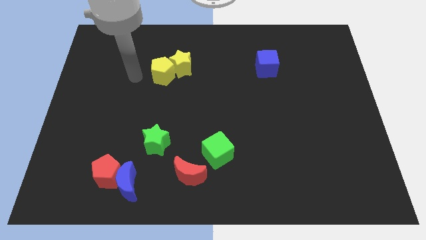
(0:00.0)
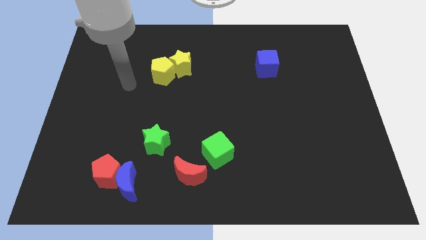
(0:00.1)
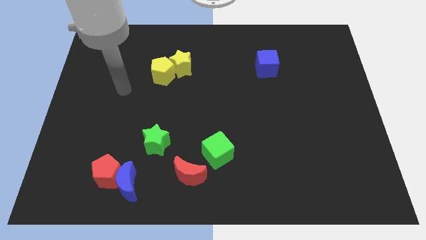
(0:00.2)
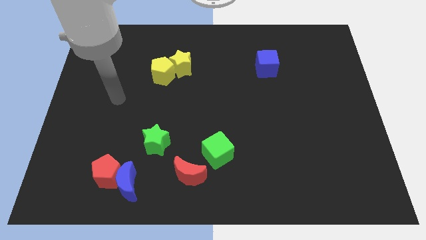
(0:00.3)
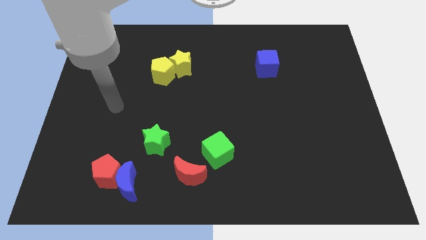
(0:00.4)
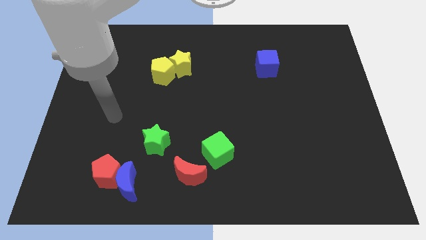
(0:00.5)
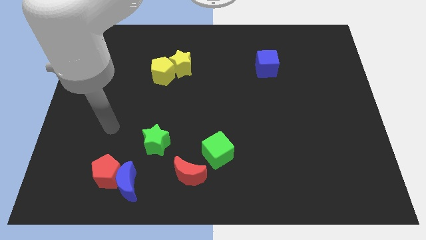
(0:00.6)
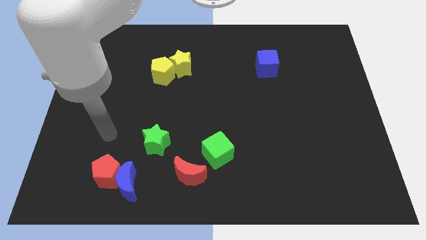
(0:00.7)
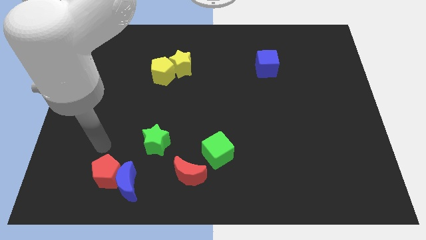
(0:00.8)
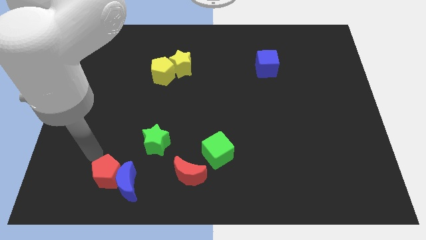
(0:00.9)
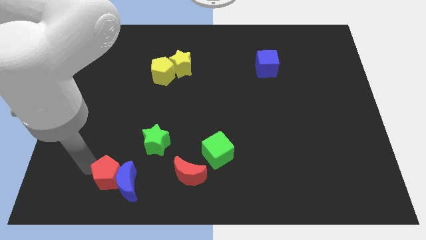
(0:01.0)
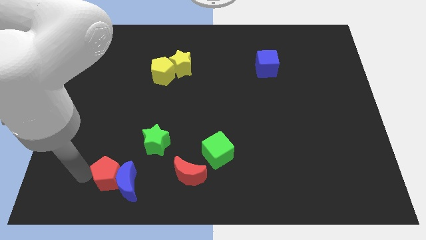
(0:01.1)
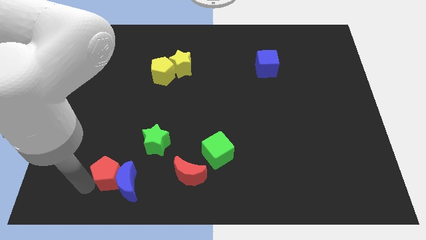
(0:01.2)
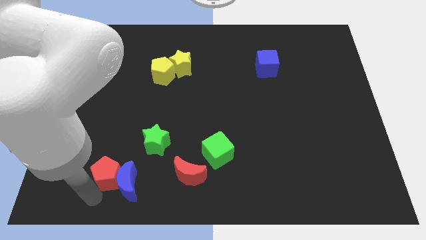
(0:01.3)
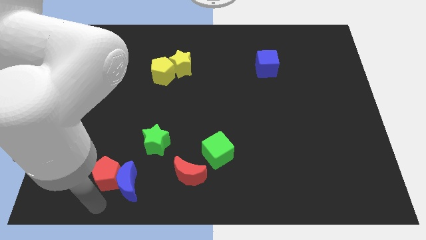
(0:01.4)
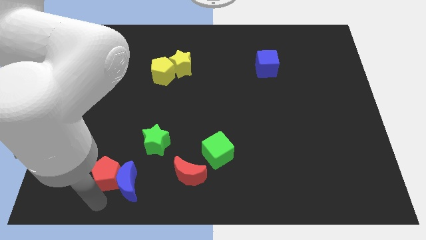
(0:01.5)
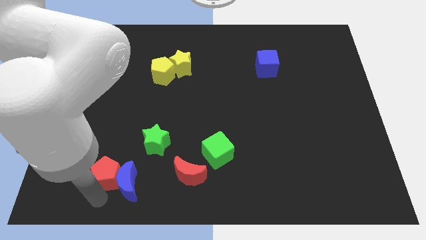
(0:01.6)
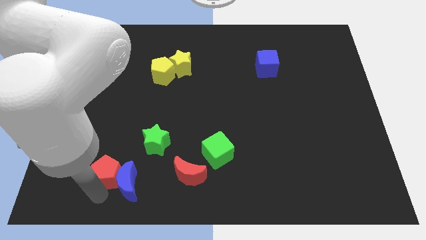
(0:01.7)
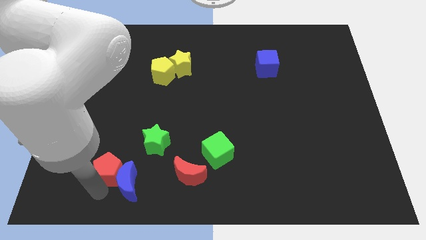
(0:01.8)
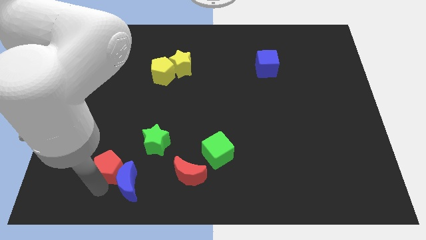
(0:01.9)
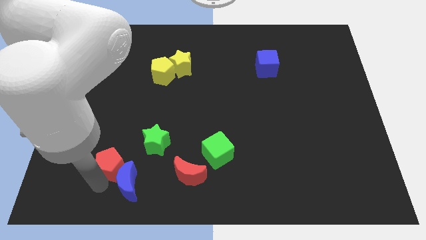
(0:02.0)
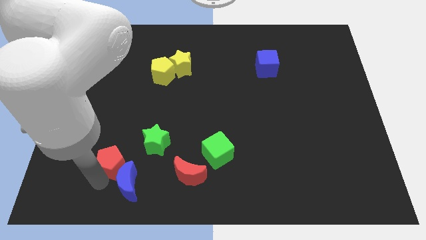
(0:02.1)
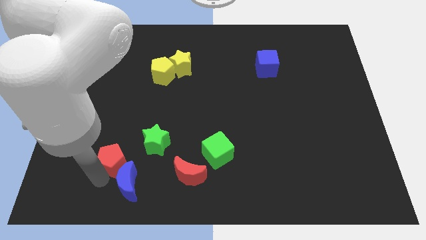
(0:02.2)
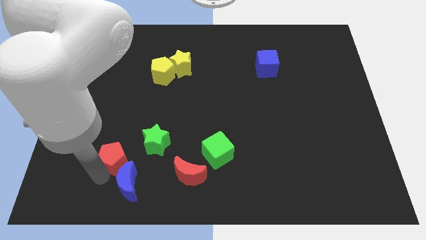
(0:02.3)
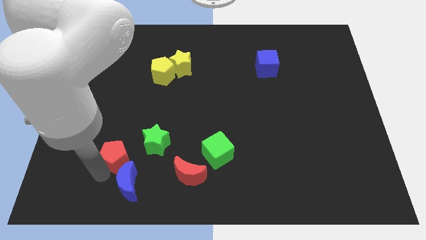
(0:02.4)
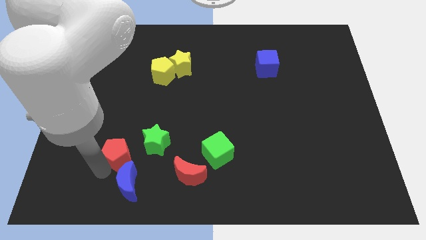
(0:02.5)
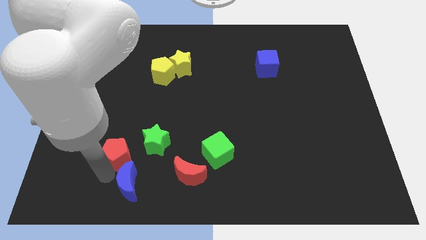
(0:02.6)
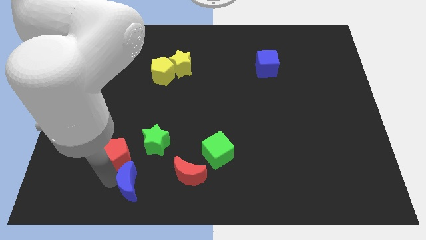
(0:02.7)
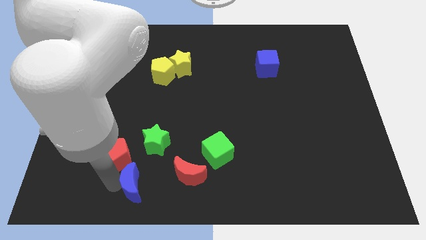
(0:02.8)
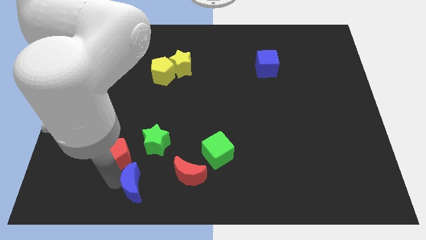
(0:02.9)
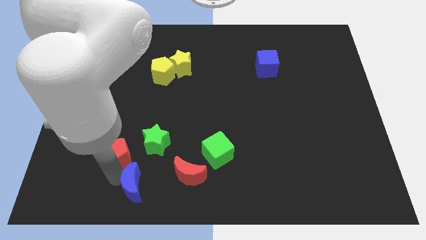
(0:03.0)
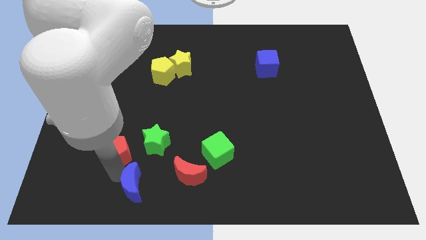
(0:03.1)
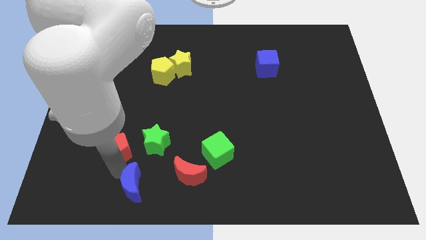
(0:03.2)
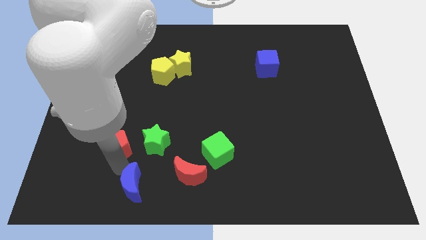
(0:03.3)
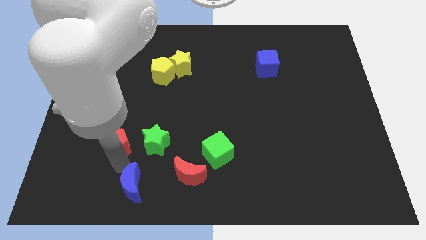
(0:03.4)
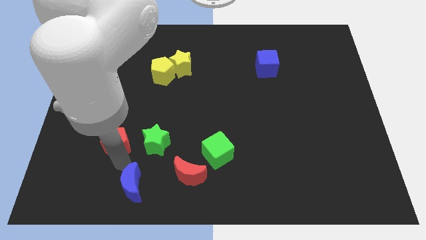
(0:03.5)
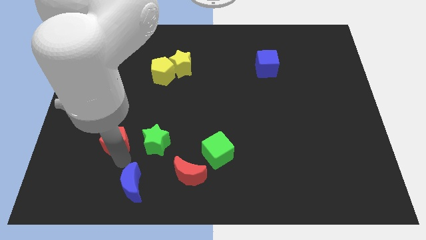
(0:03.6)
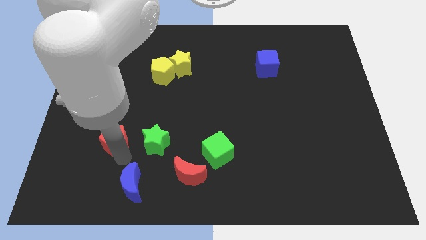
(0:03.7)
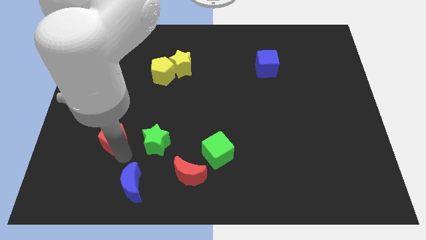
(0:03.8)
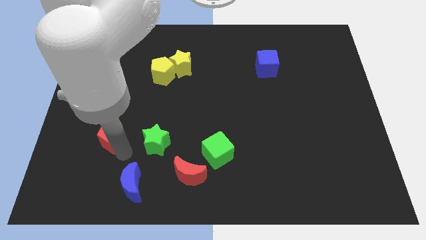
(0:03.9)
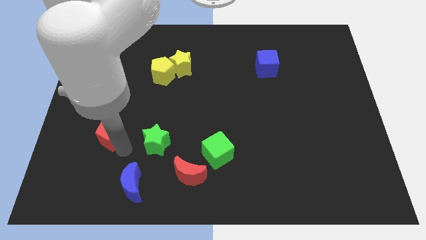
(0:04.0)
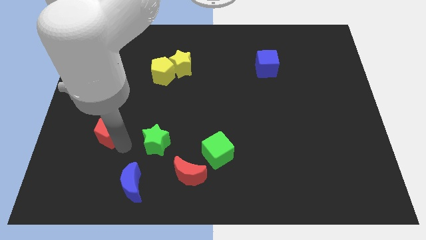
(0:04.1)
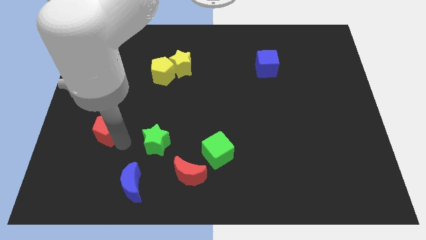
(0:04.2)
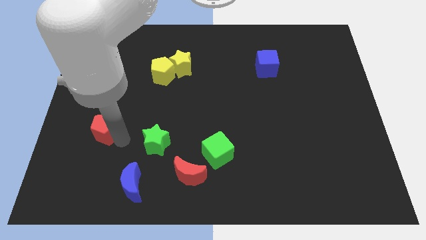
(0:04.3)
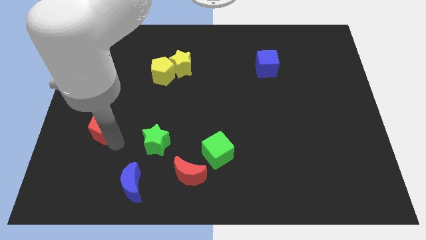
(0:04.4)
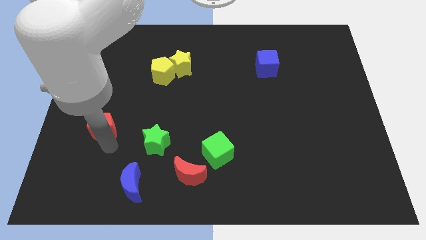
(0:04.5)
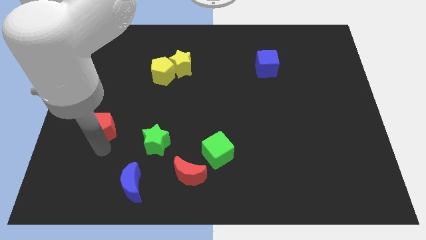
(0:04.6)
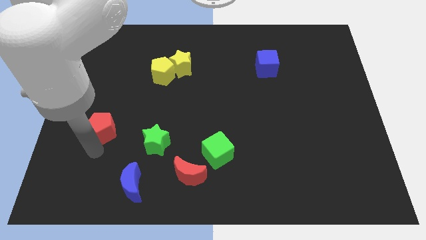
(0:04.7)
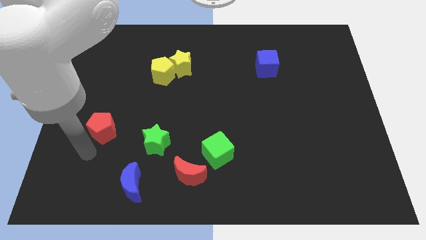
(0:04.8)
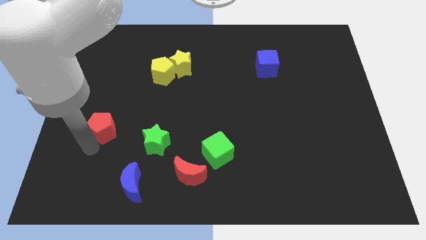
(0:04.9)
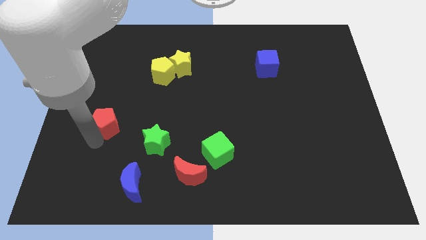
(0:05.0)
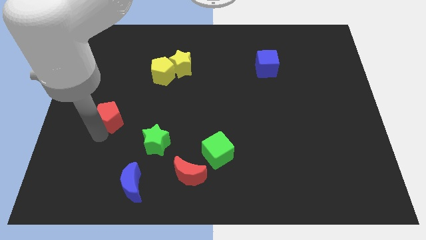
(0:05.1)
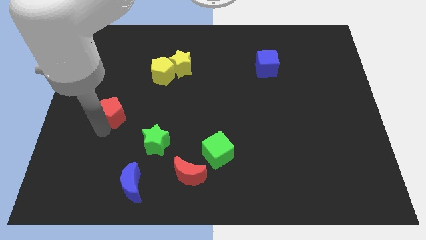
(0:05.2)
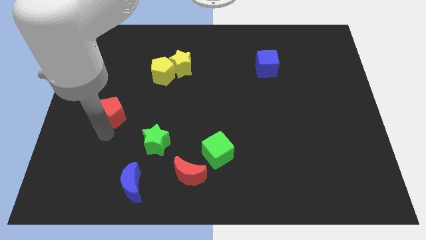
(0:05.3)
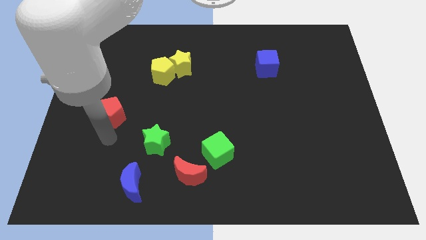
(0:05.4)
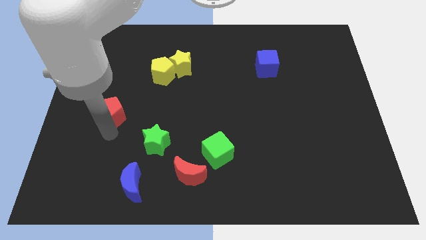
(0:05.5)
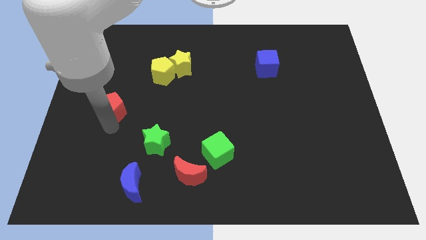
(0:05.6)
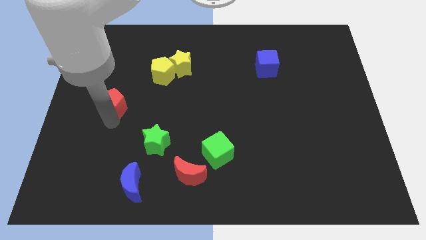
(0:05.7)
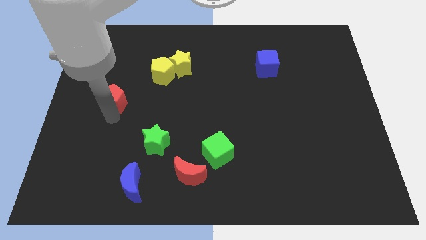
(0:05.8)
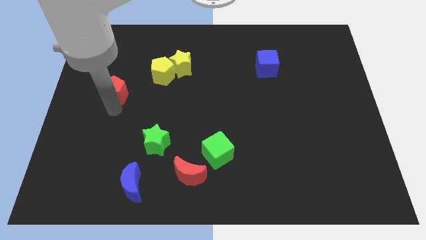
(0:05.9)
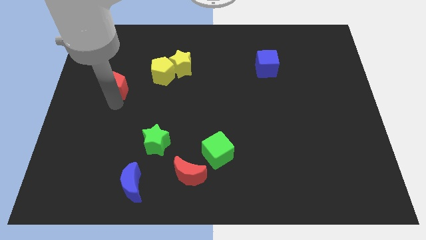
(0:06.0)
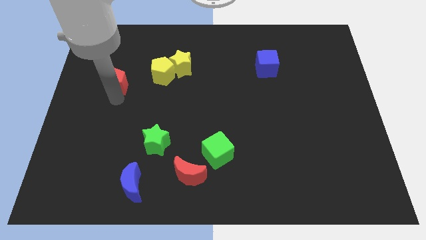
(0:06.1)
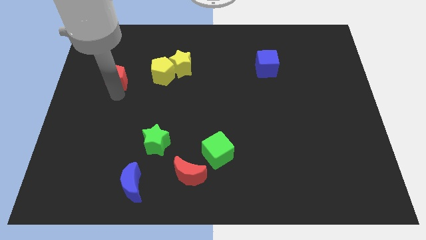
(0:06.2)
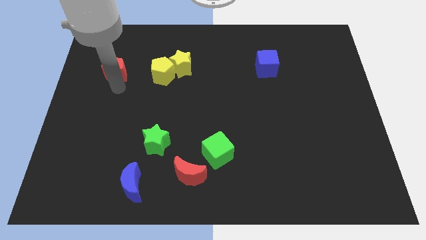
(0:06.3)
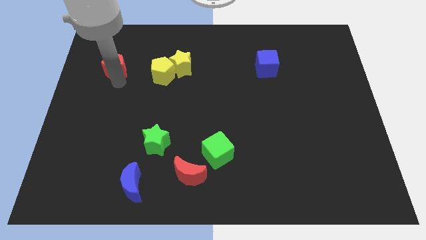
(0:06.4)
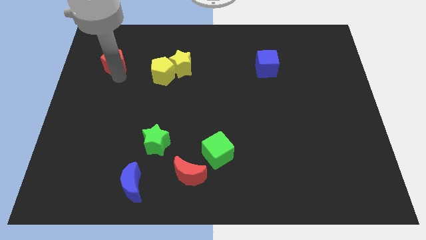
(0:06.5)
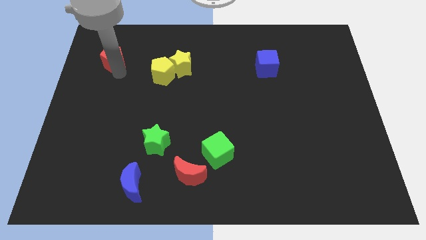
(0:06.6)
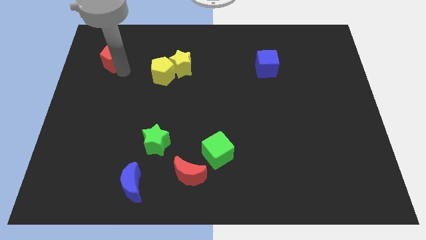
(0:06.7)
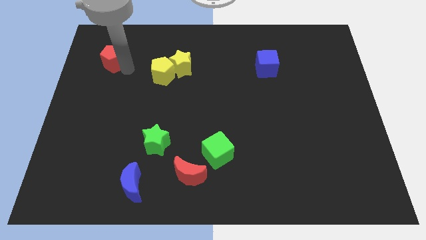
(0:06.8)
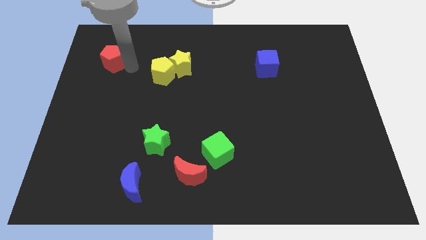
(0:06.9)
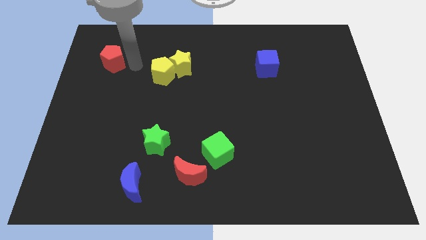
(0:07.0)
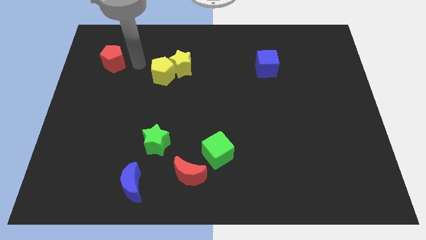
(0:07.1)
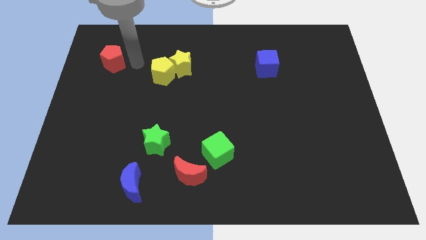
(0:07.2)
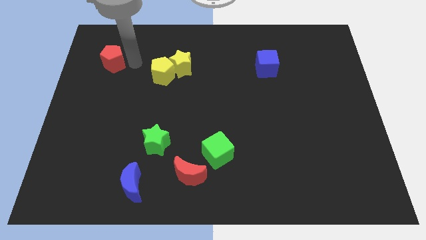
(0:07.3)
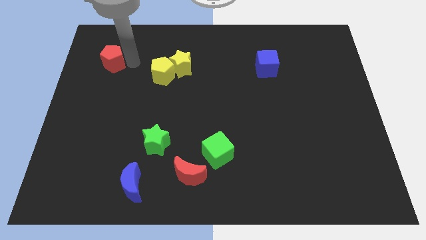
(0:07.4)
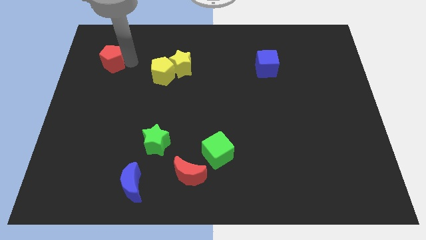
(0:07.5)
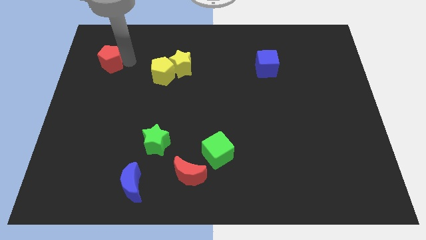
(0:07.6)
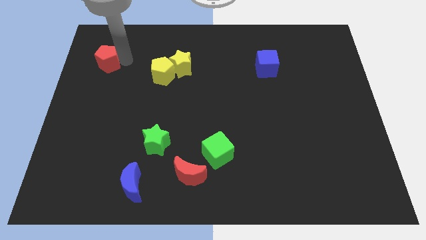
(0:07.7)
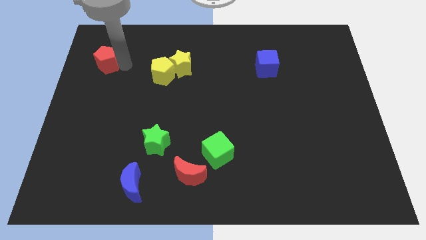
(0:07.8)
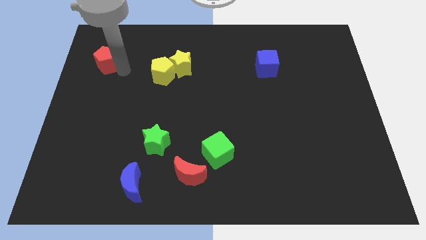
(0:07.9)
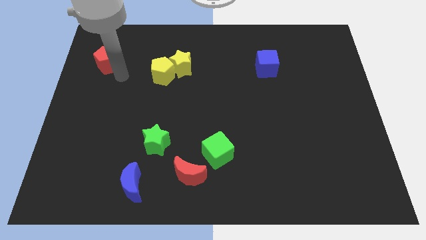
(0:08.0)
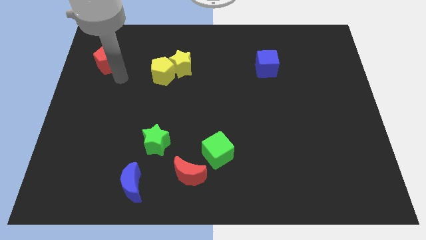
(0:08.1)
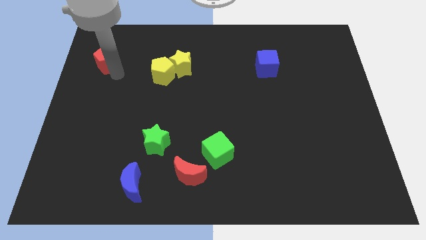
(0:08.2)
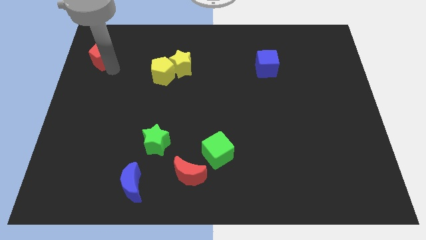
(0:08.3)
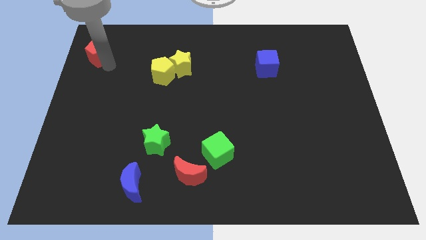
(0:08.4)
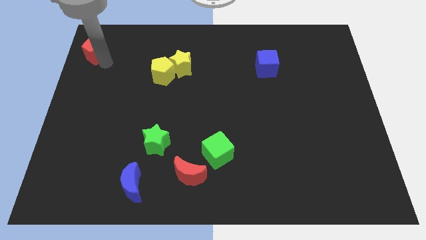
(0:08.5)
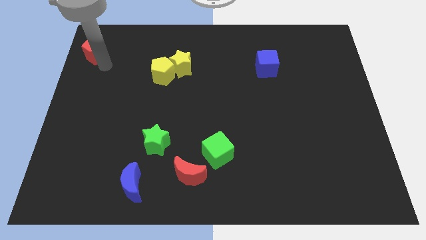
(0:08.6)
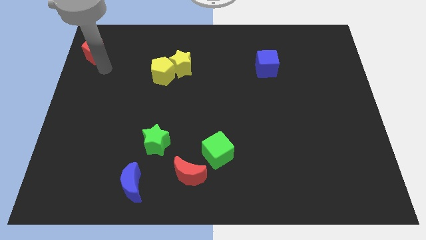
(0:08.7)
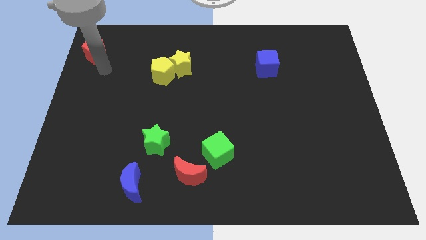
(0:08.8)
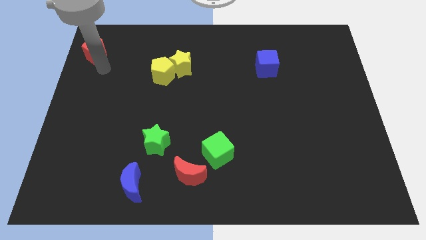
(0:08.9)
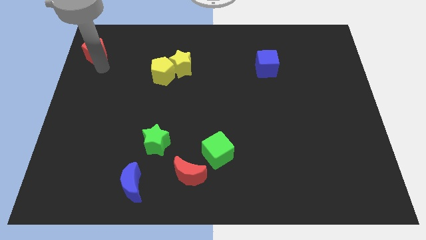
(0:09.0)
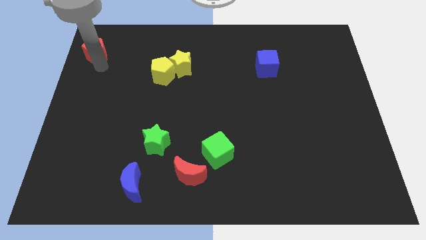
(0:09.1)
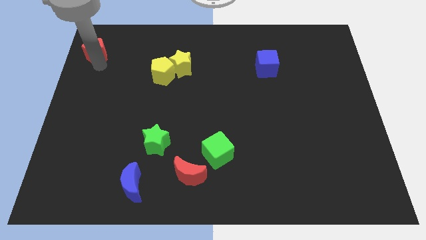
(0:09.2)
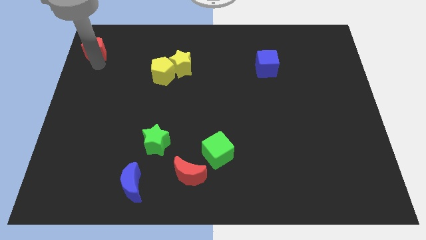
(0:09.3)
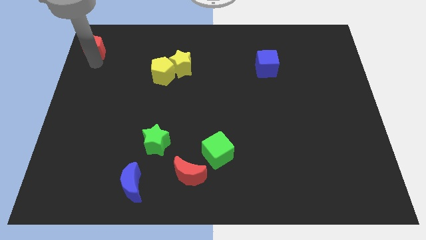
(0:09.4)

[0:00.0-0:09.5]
push the red pentagon to the top left
